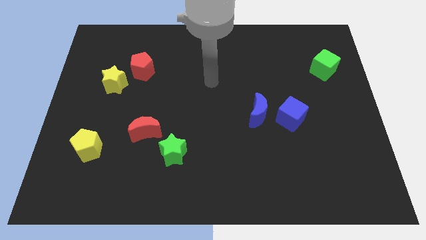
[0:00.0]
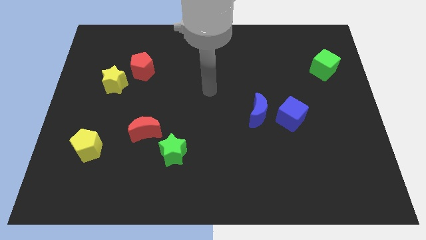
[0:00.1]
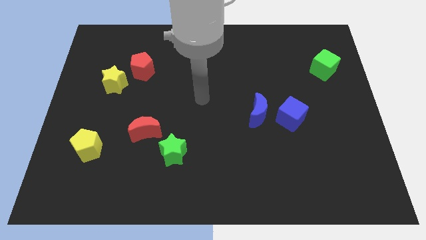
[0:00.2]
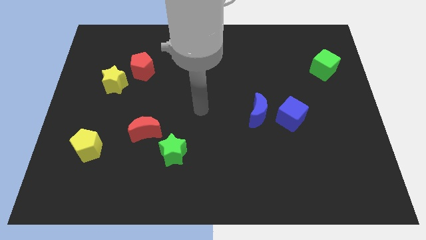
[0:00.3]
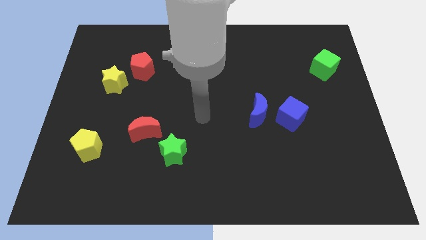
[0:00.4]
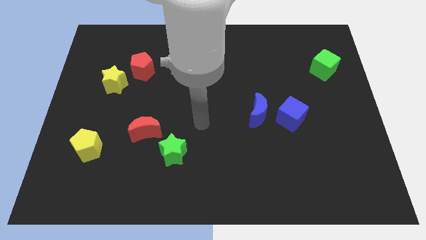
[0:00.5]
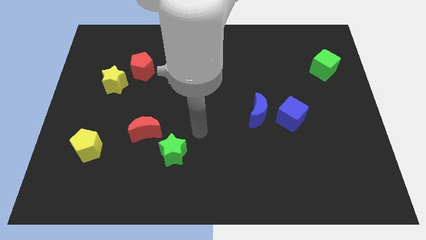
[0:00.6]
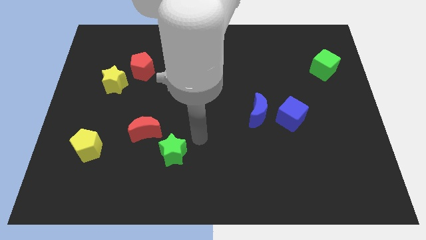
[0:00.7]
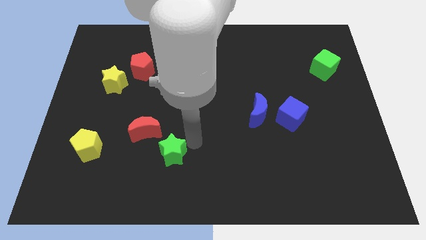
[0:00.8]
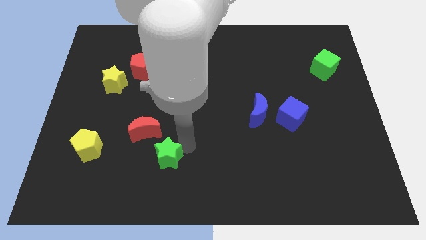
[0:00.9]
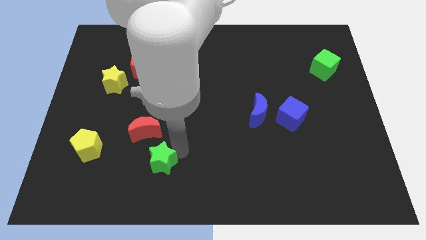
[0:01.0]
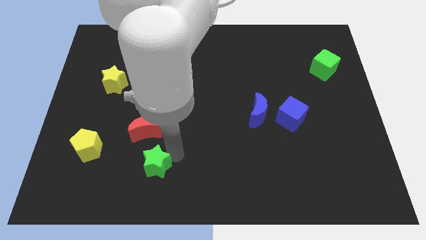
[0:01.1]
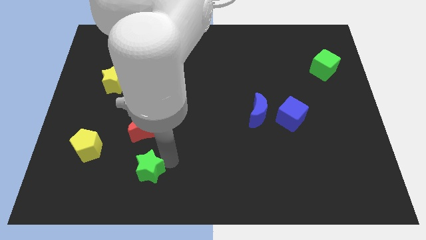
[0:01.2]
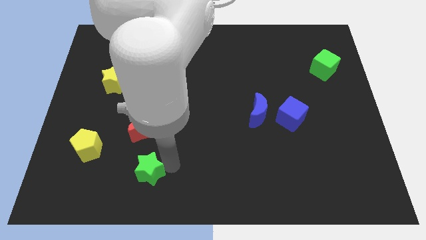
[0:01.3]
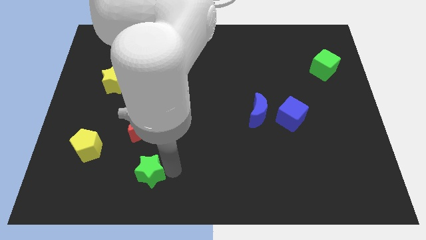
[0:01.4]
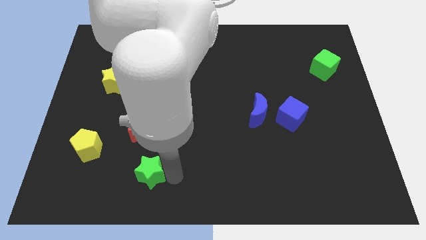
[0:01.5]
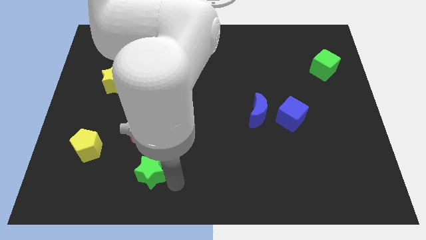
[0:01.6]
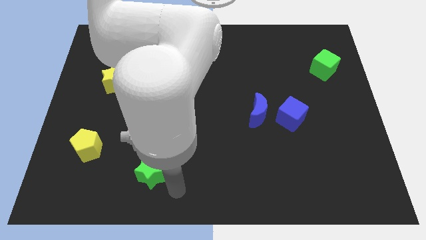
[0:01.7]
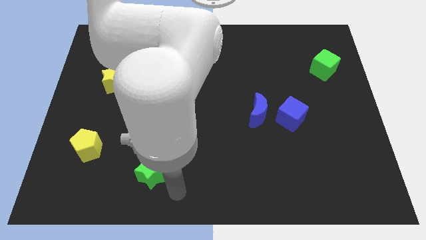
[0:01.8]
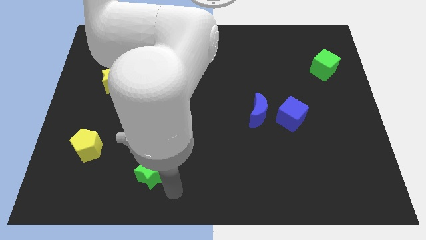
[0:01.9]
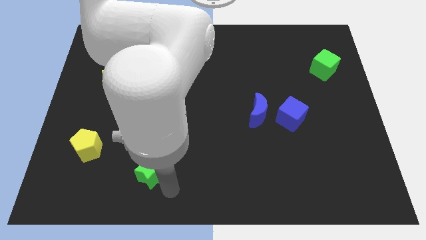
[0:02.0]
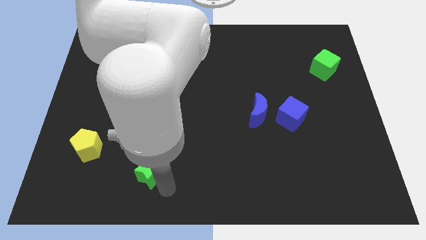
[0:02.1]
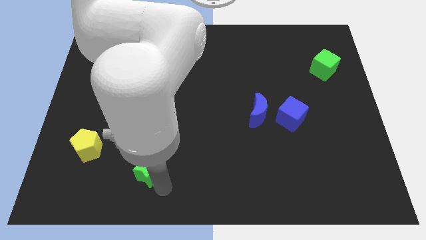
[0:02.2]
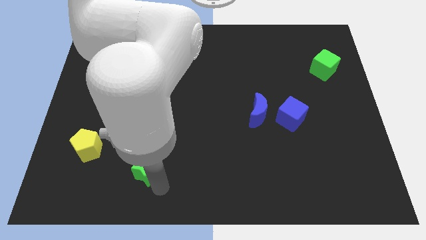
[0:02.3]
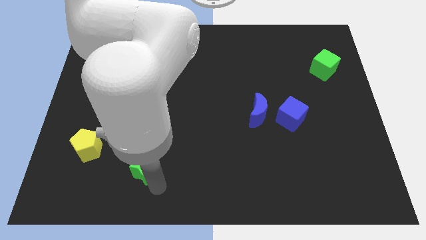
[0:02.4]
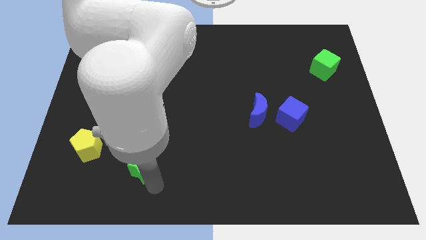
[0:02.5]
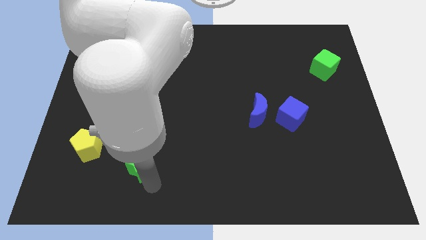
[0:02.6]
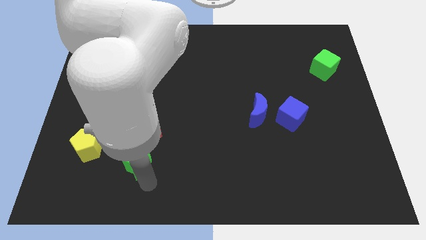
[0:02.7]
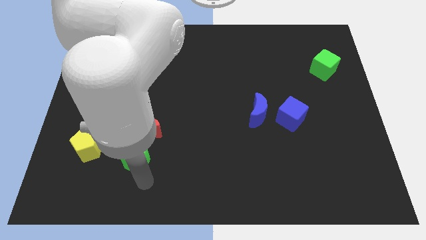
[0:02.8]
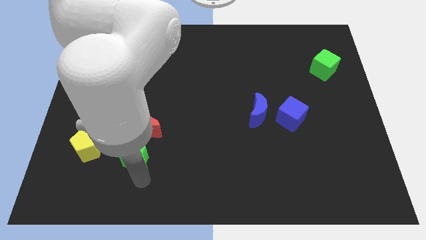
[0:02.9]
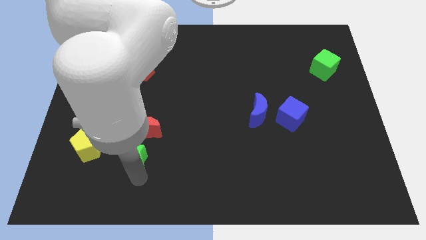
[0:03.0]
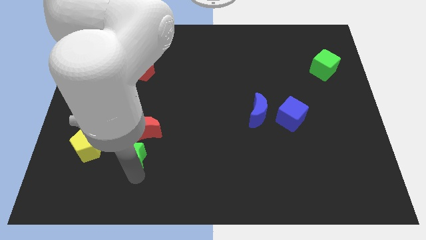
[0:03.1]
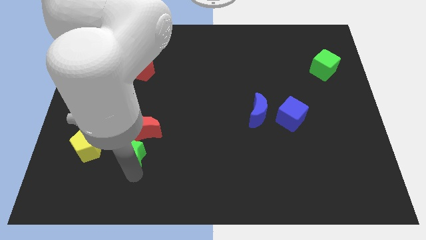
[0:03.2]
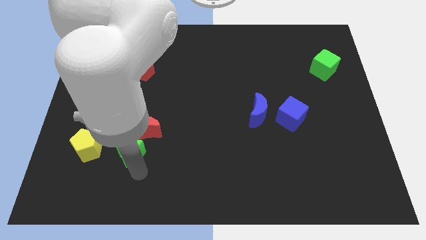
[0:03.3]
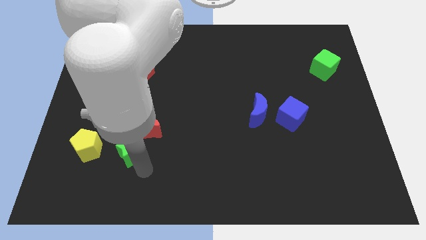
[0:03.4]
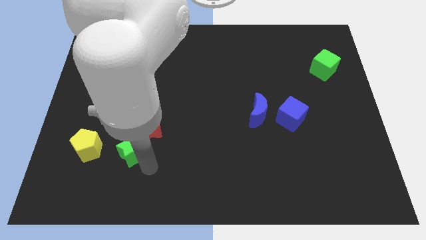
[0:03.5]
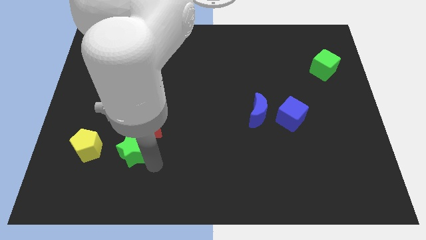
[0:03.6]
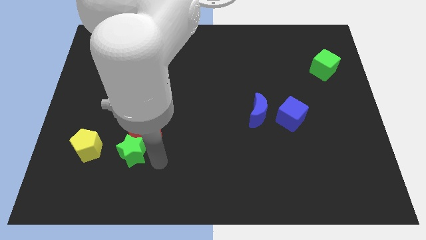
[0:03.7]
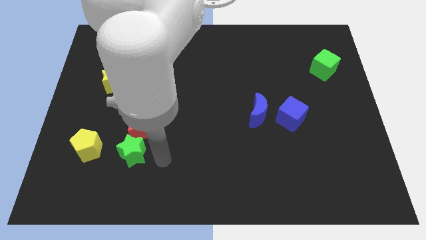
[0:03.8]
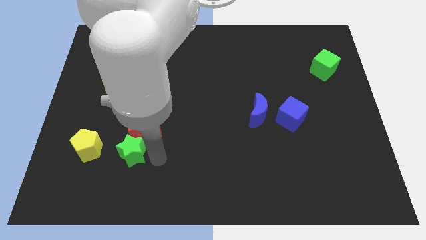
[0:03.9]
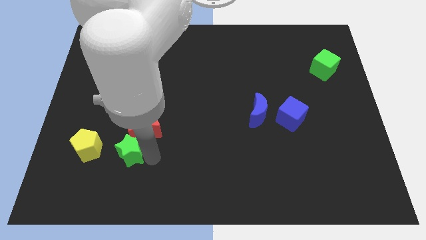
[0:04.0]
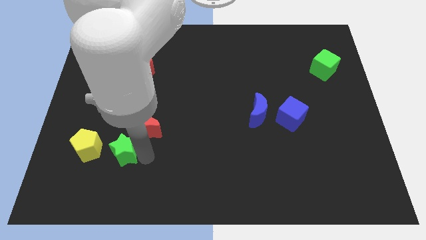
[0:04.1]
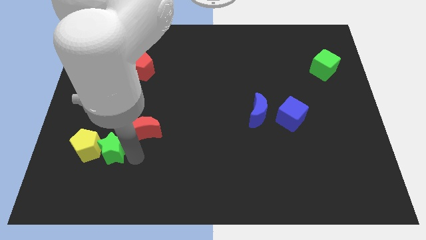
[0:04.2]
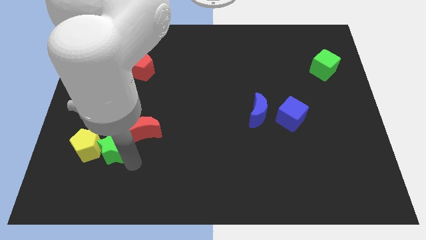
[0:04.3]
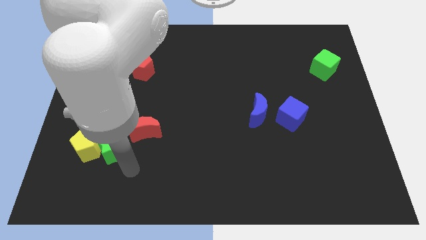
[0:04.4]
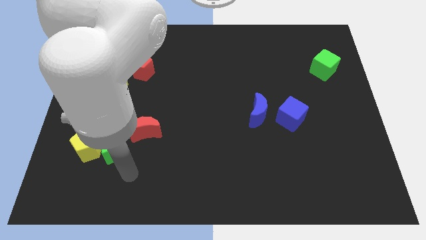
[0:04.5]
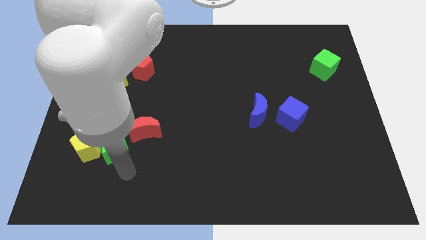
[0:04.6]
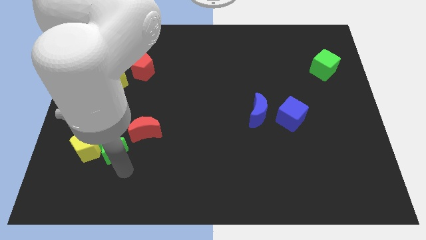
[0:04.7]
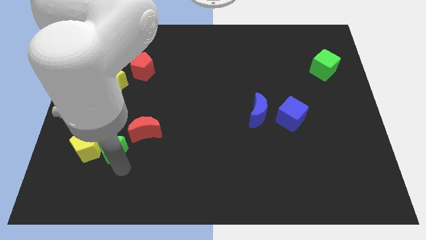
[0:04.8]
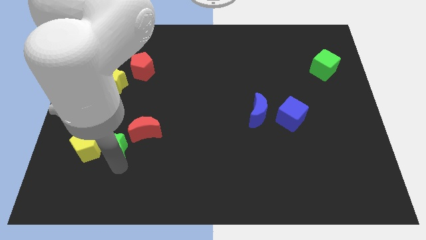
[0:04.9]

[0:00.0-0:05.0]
move the green star to the left of the red moon

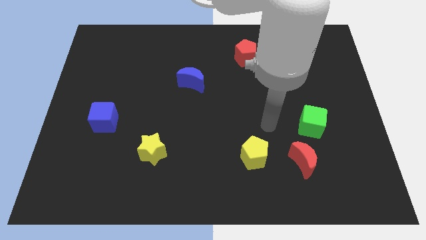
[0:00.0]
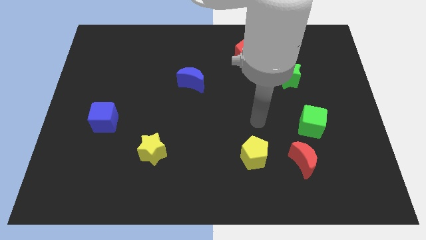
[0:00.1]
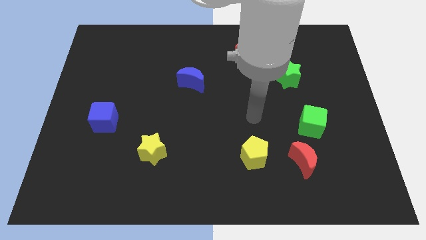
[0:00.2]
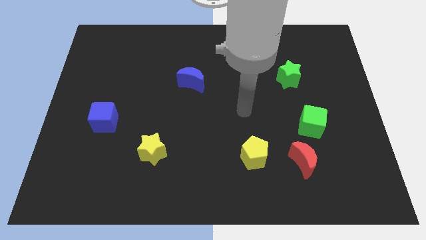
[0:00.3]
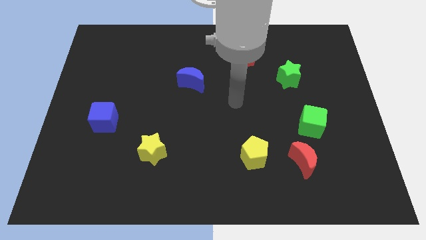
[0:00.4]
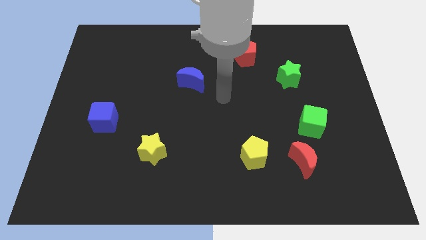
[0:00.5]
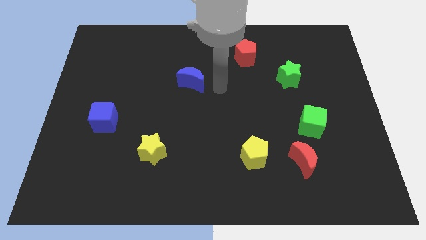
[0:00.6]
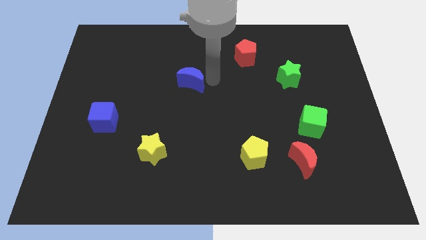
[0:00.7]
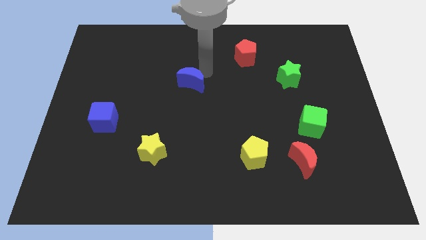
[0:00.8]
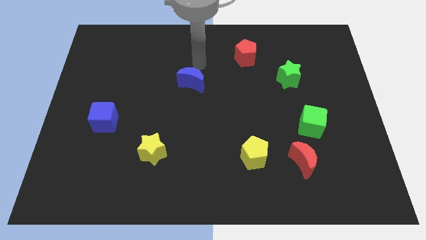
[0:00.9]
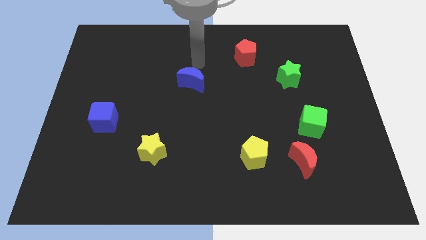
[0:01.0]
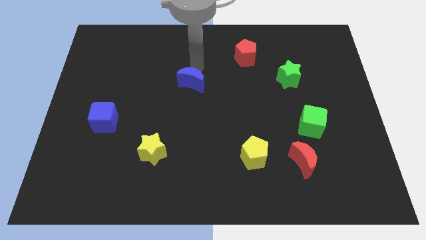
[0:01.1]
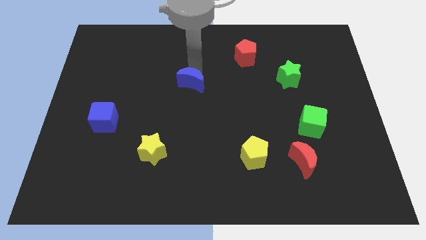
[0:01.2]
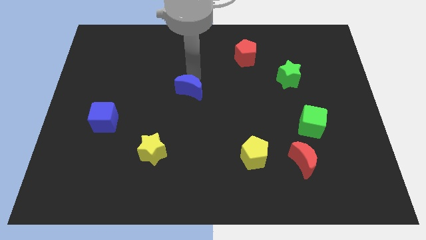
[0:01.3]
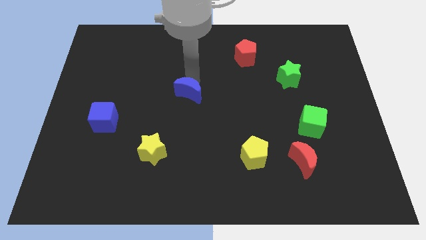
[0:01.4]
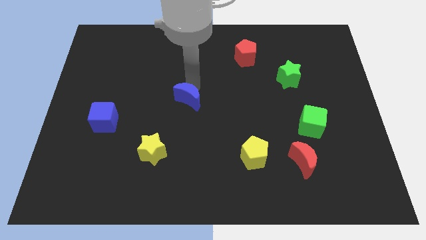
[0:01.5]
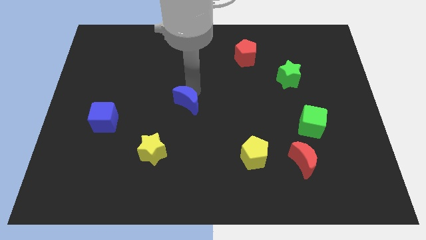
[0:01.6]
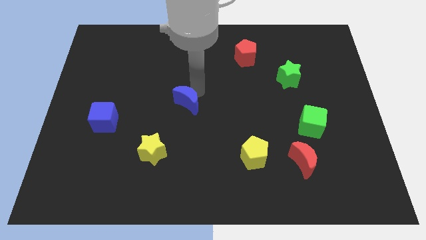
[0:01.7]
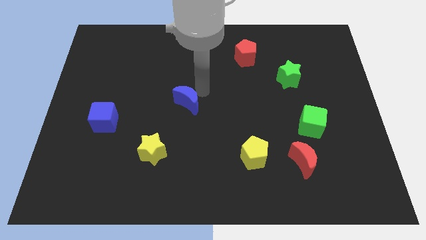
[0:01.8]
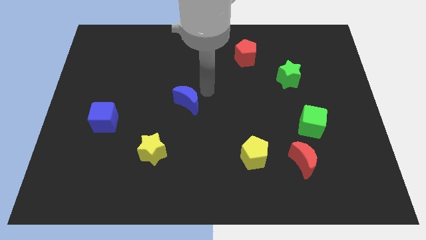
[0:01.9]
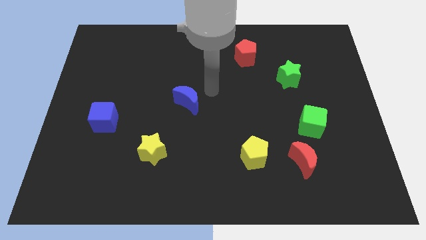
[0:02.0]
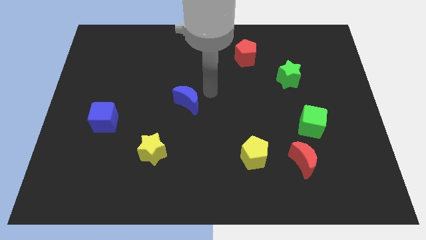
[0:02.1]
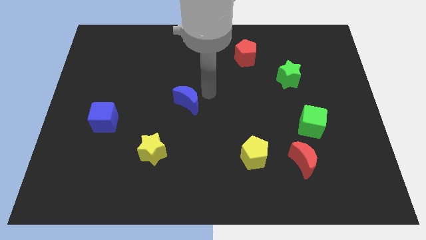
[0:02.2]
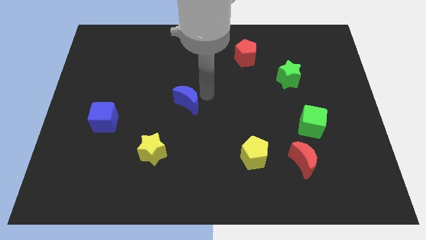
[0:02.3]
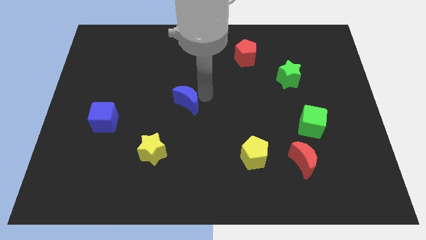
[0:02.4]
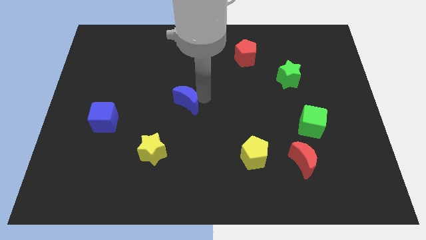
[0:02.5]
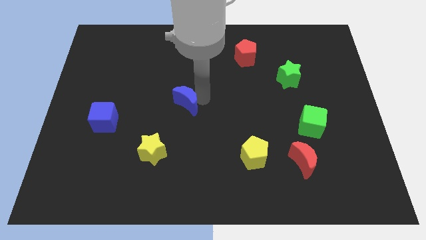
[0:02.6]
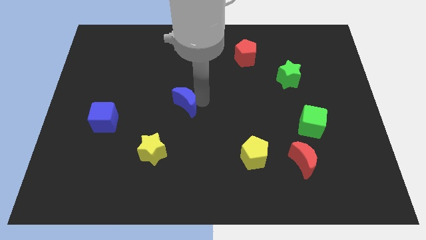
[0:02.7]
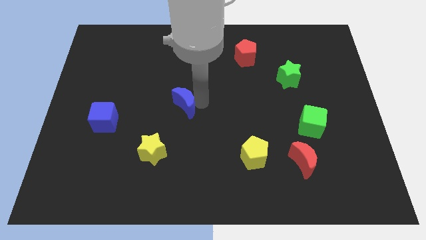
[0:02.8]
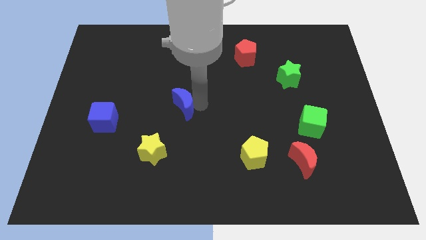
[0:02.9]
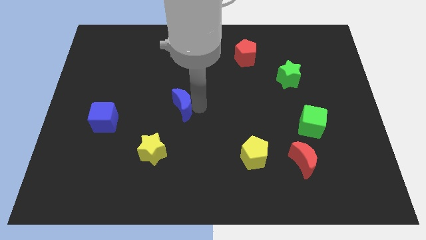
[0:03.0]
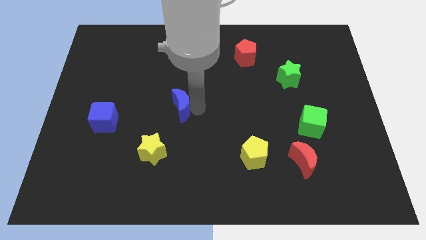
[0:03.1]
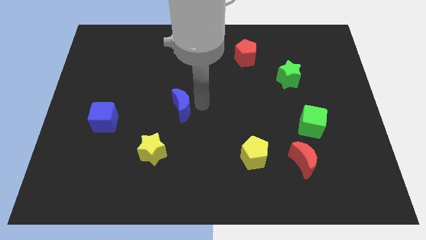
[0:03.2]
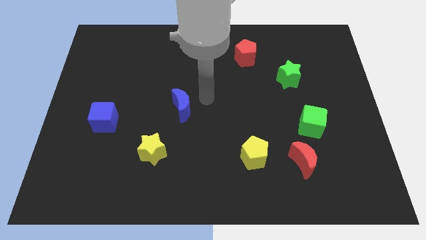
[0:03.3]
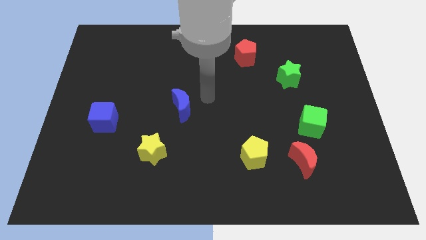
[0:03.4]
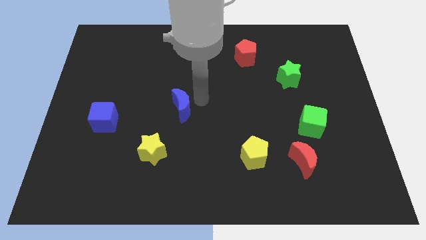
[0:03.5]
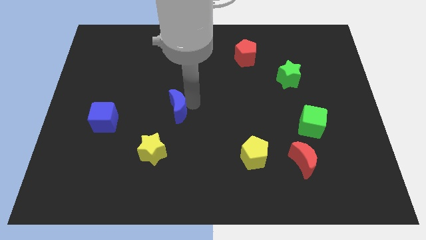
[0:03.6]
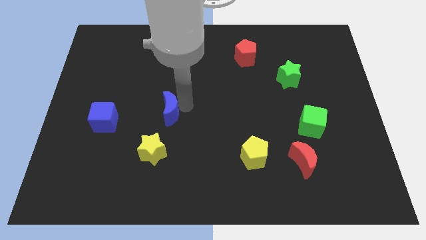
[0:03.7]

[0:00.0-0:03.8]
move the blue moon right of the blue cube
